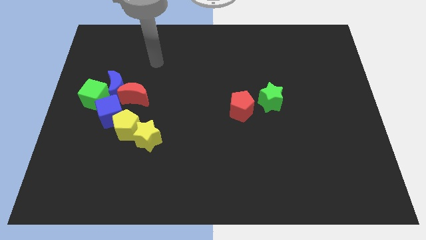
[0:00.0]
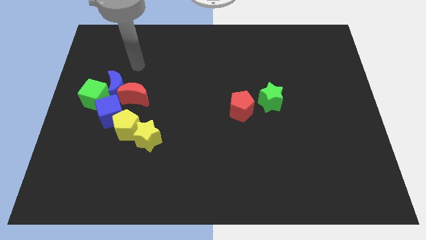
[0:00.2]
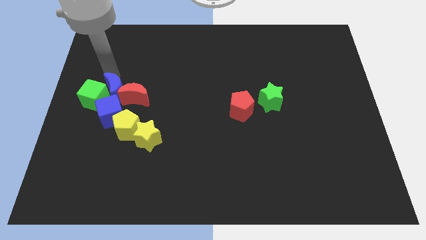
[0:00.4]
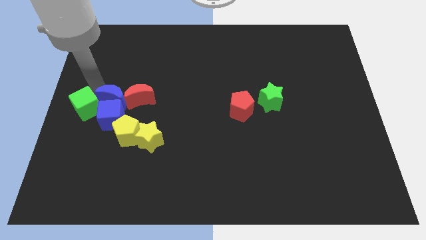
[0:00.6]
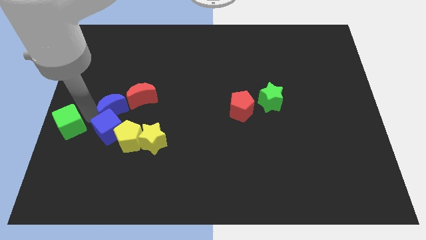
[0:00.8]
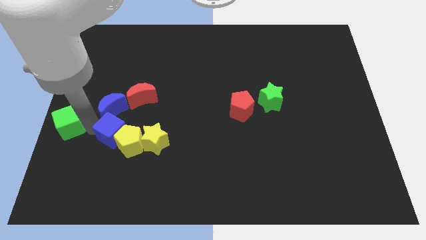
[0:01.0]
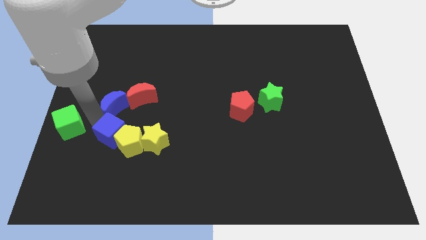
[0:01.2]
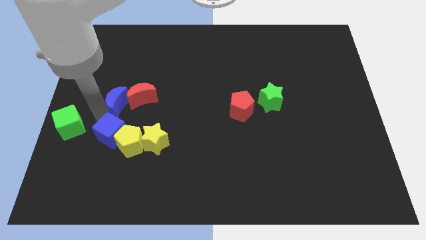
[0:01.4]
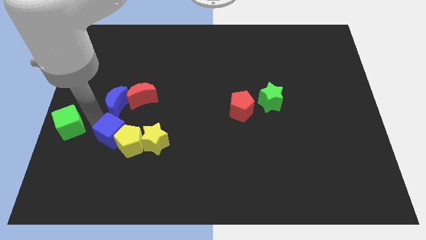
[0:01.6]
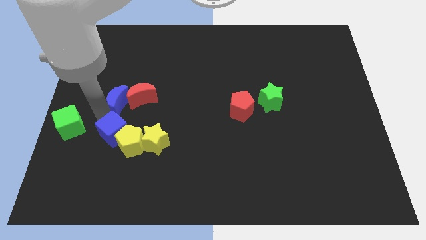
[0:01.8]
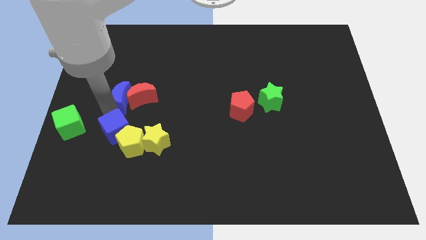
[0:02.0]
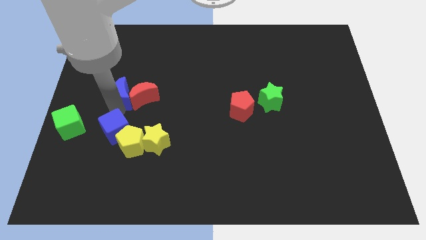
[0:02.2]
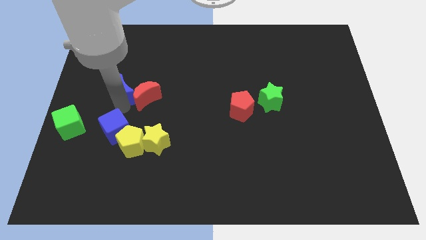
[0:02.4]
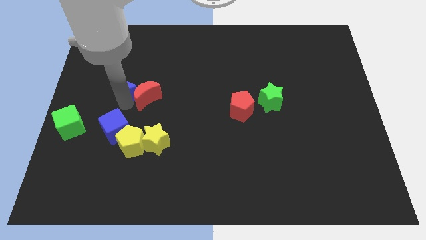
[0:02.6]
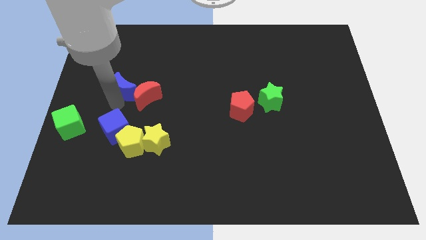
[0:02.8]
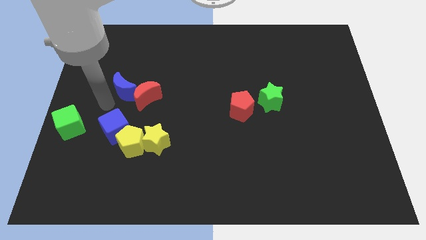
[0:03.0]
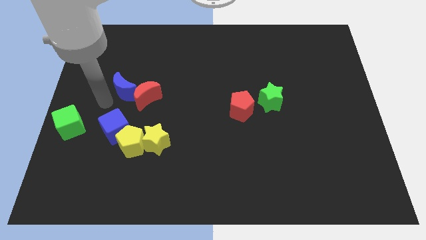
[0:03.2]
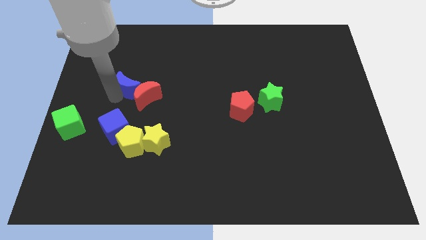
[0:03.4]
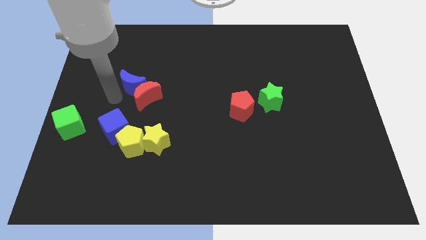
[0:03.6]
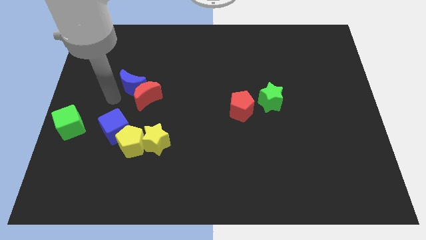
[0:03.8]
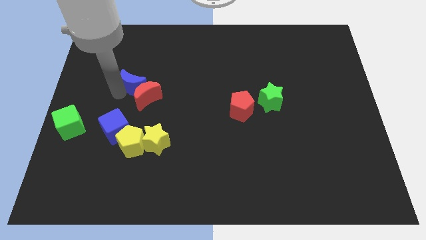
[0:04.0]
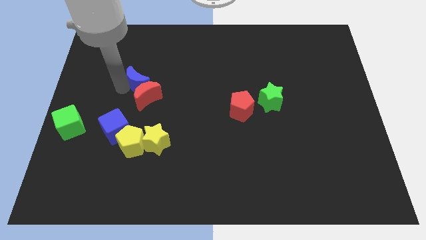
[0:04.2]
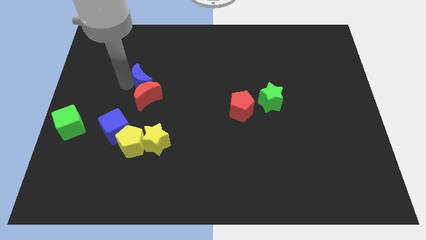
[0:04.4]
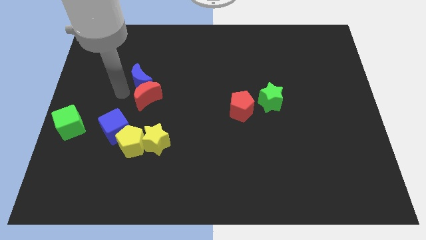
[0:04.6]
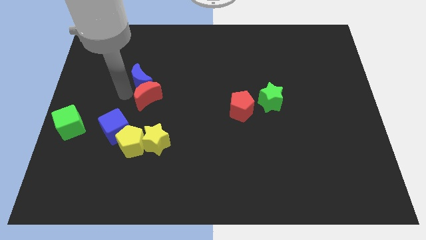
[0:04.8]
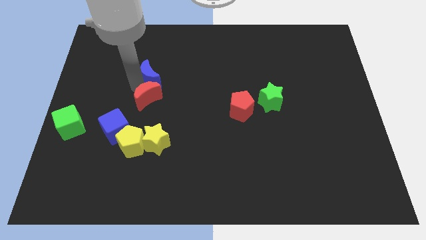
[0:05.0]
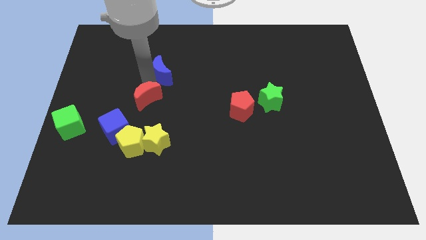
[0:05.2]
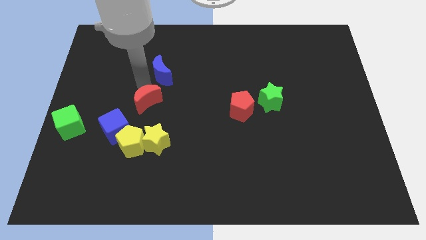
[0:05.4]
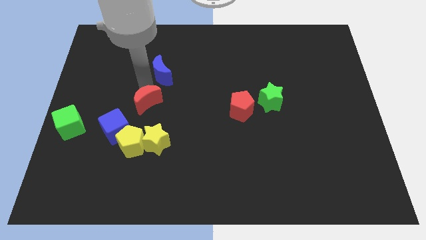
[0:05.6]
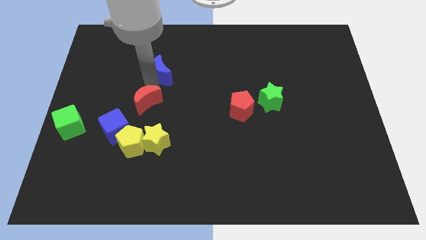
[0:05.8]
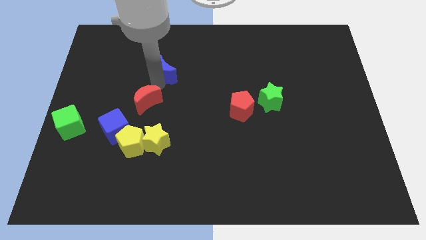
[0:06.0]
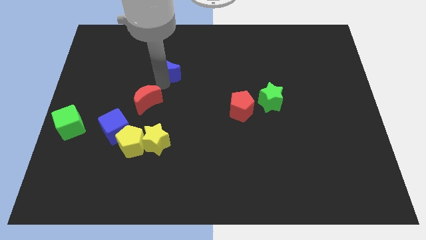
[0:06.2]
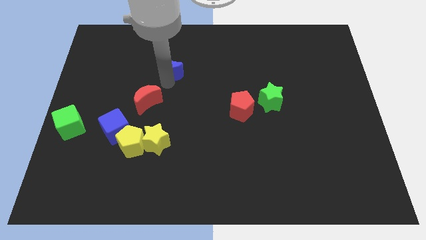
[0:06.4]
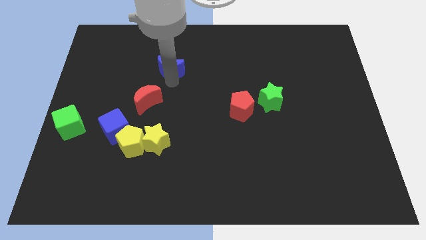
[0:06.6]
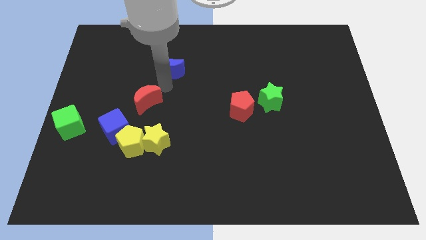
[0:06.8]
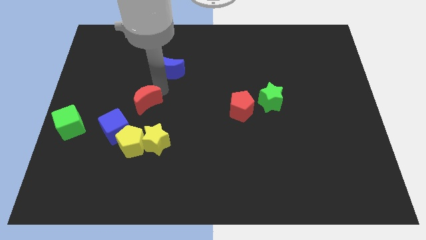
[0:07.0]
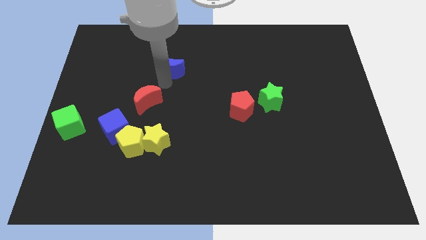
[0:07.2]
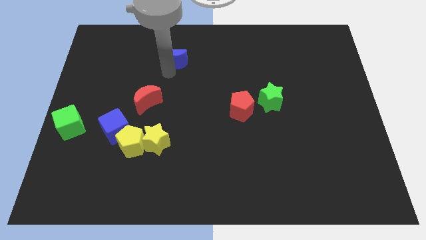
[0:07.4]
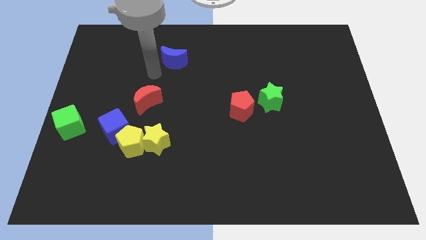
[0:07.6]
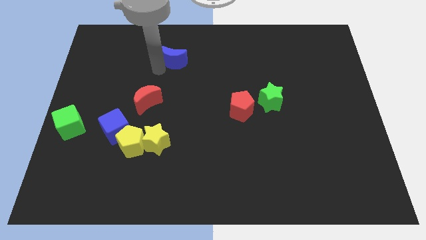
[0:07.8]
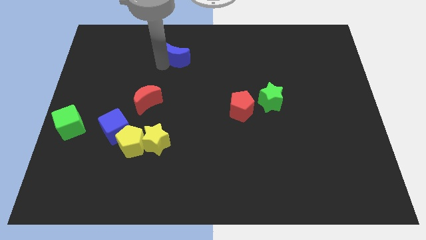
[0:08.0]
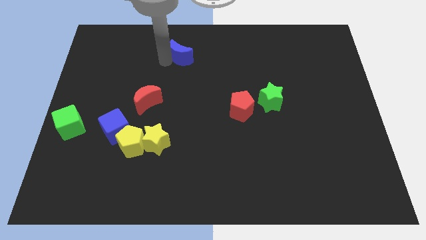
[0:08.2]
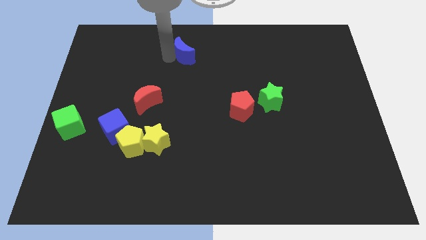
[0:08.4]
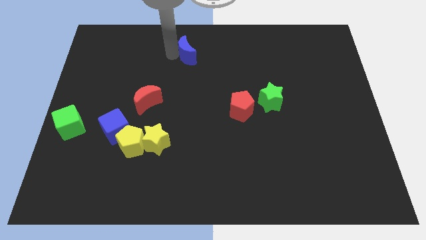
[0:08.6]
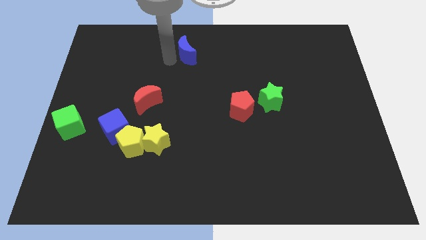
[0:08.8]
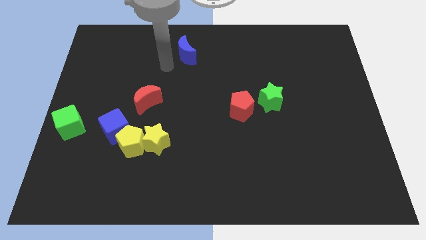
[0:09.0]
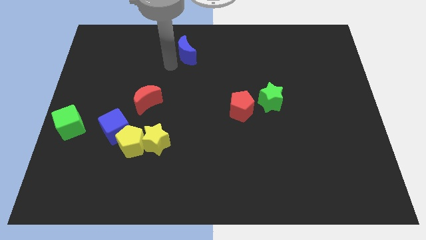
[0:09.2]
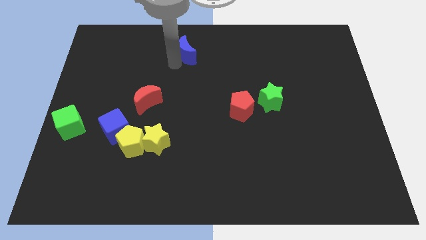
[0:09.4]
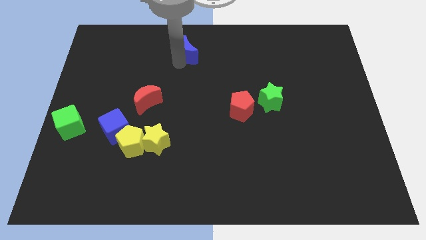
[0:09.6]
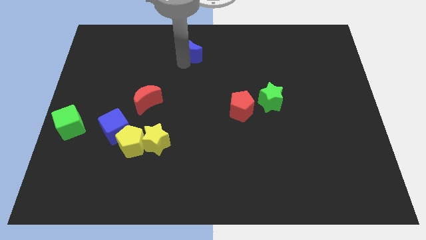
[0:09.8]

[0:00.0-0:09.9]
put the blue moon to the top

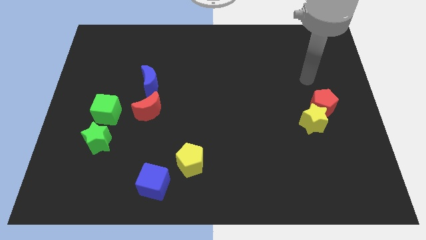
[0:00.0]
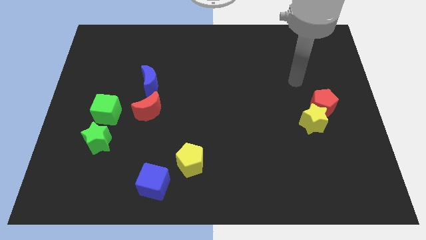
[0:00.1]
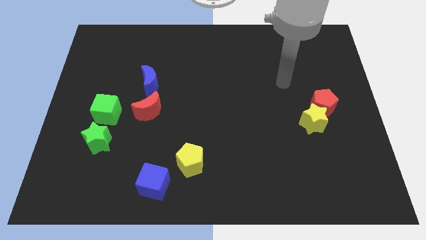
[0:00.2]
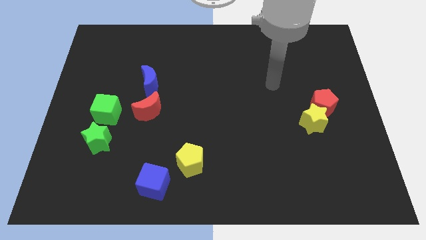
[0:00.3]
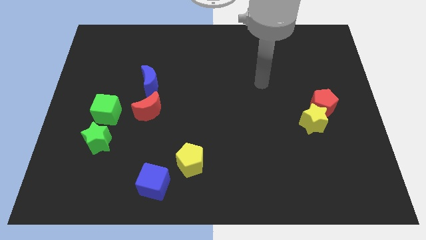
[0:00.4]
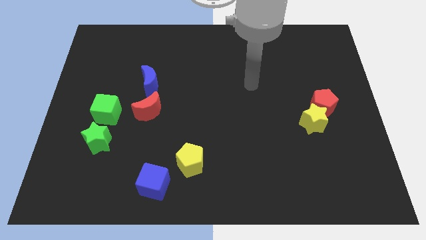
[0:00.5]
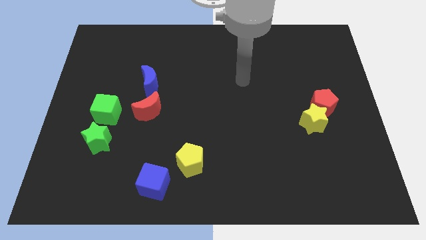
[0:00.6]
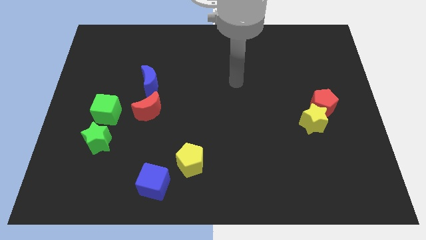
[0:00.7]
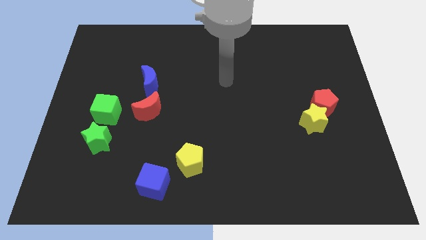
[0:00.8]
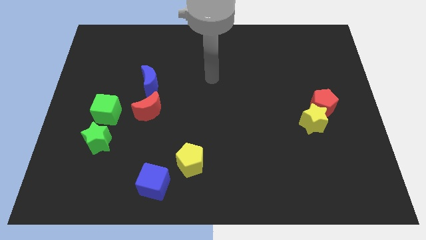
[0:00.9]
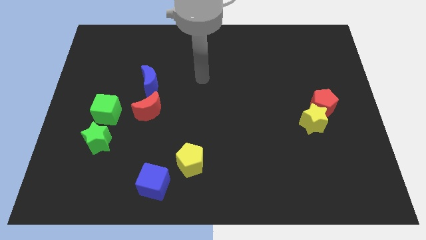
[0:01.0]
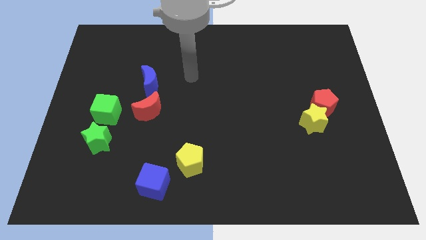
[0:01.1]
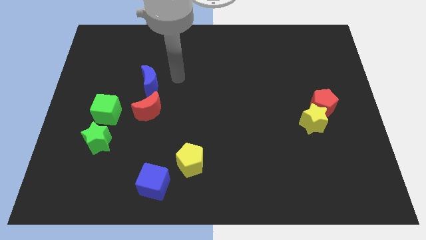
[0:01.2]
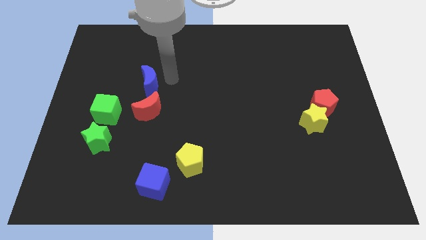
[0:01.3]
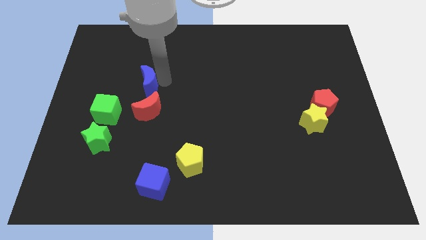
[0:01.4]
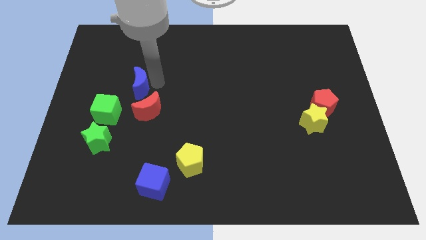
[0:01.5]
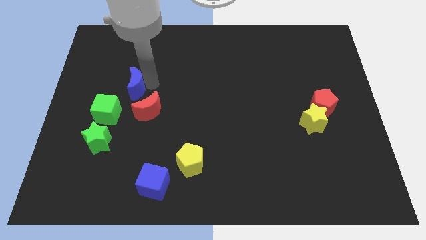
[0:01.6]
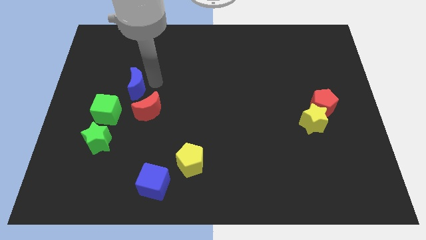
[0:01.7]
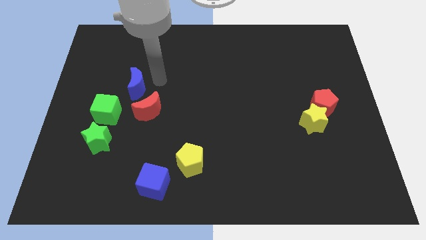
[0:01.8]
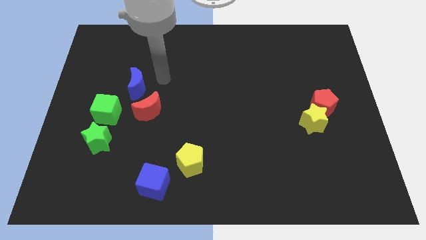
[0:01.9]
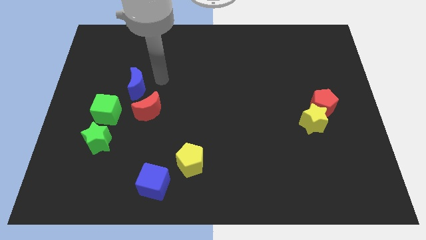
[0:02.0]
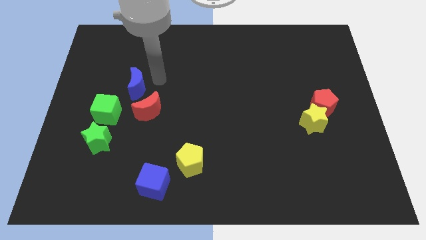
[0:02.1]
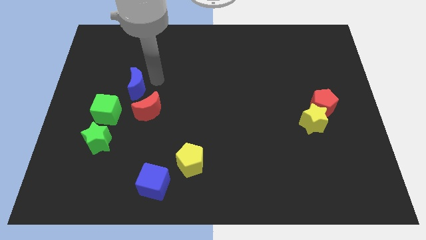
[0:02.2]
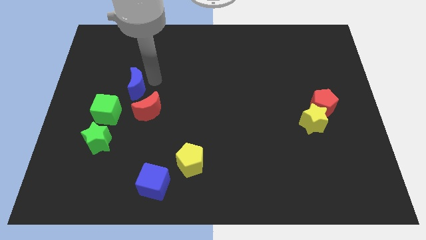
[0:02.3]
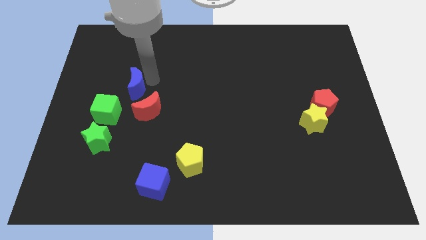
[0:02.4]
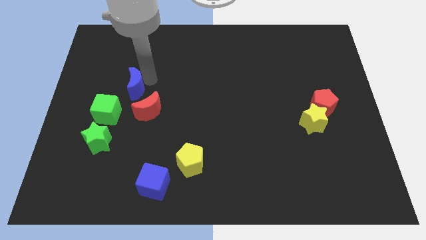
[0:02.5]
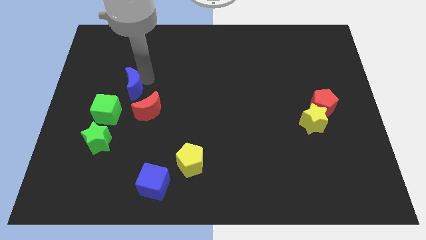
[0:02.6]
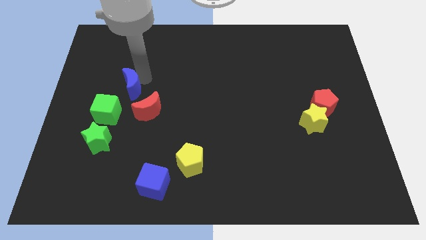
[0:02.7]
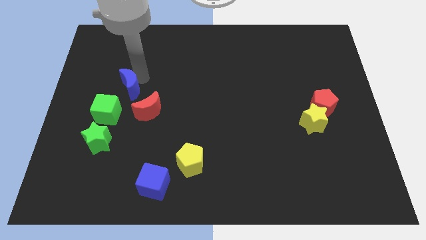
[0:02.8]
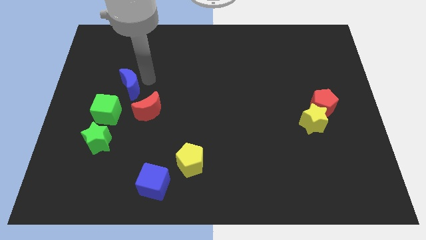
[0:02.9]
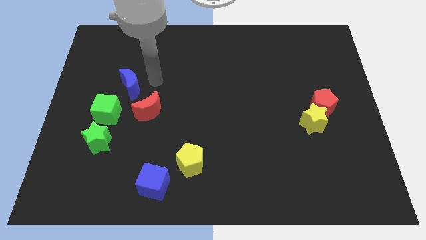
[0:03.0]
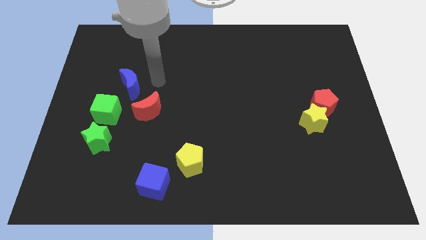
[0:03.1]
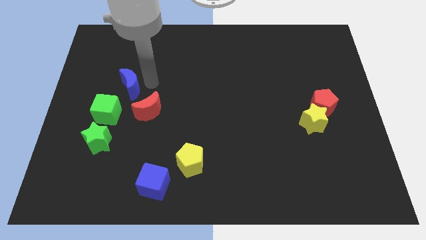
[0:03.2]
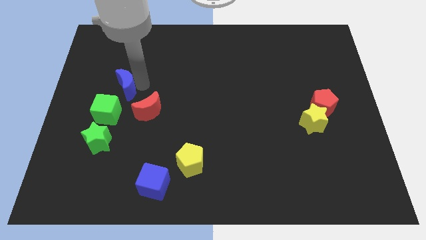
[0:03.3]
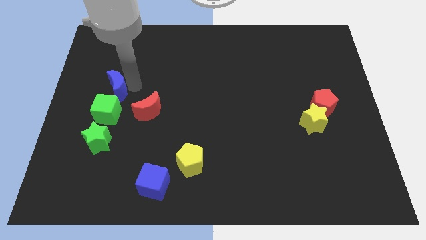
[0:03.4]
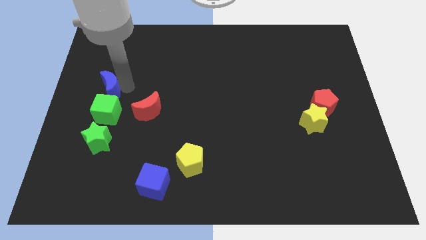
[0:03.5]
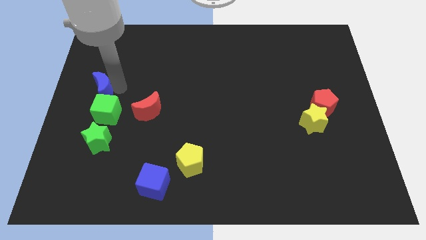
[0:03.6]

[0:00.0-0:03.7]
put the blue moon to the left side
